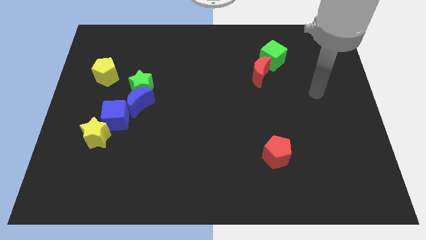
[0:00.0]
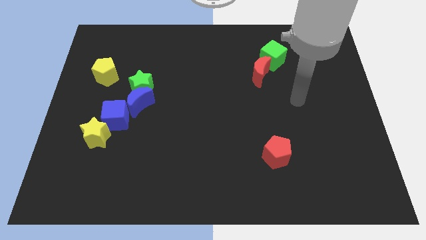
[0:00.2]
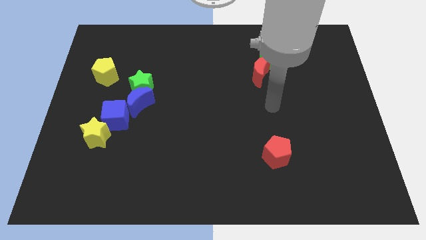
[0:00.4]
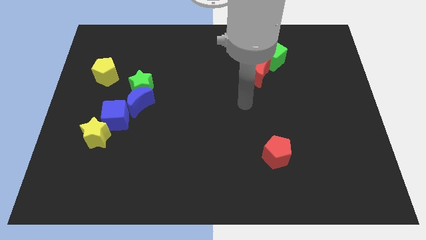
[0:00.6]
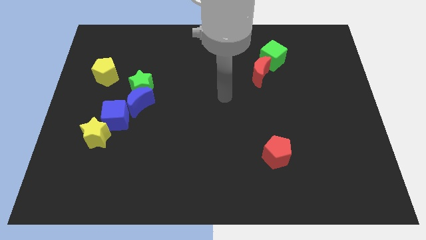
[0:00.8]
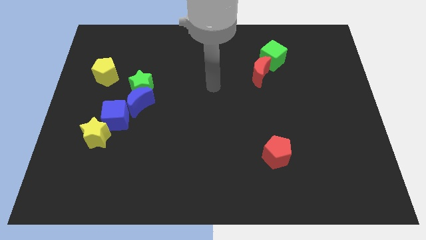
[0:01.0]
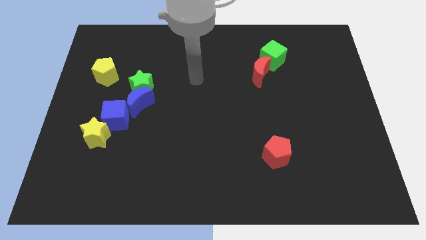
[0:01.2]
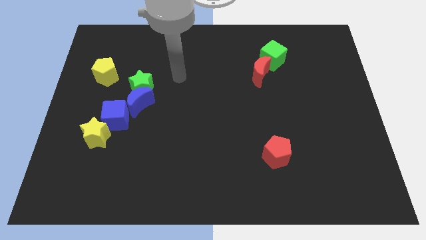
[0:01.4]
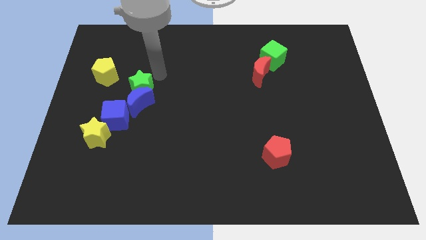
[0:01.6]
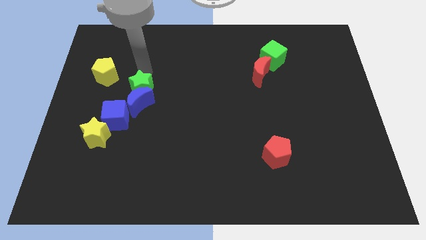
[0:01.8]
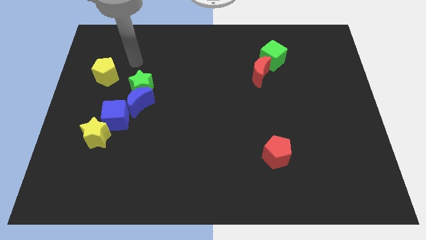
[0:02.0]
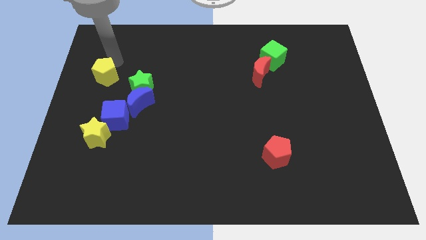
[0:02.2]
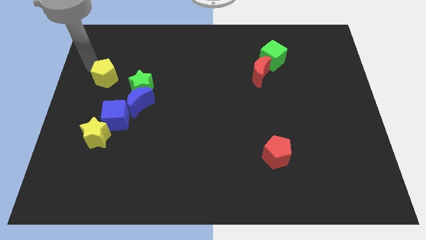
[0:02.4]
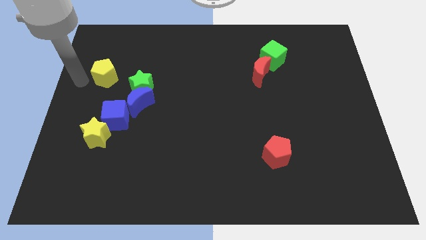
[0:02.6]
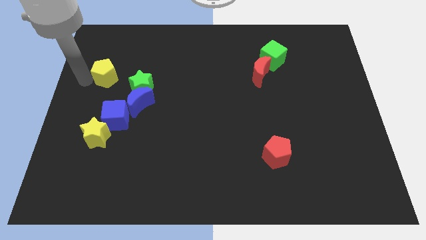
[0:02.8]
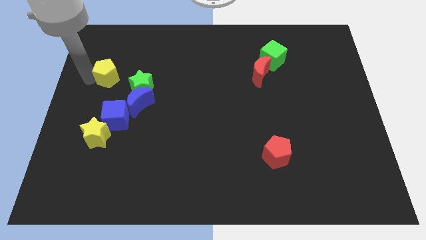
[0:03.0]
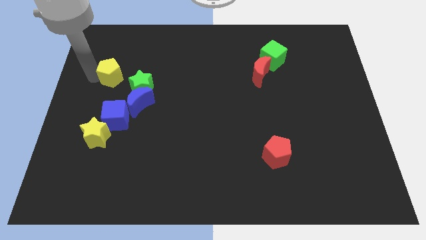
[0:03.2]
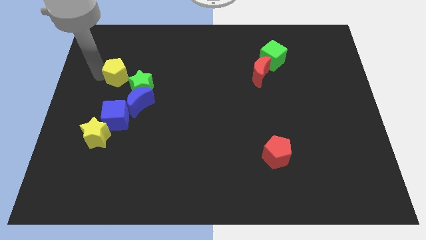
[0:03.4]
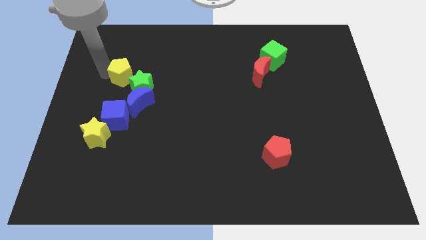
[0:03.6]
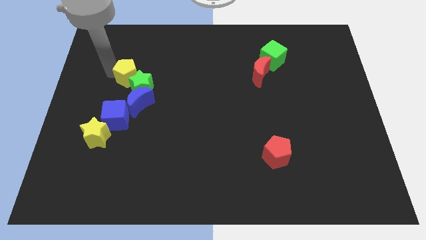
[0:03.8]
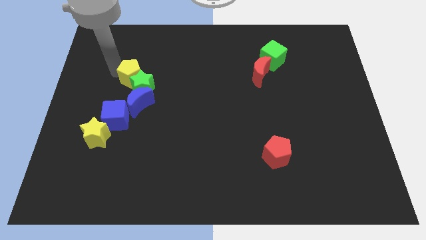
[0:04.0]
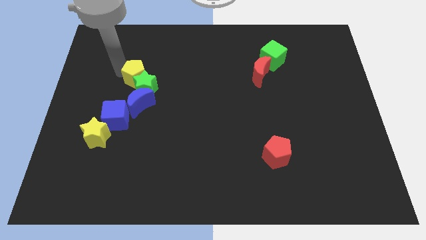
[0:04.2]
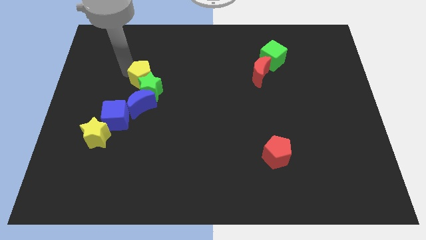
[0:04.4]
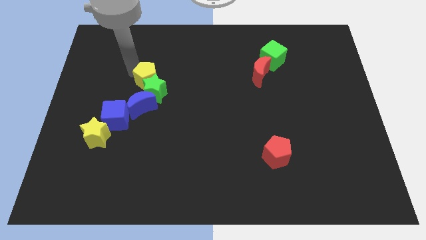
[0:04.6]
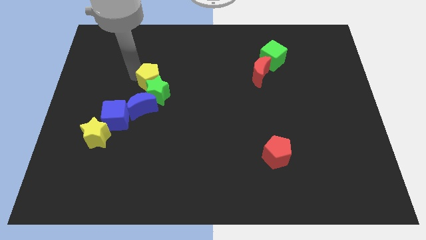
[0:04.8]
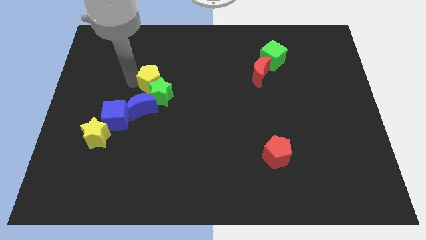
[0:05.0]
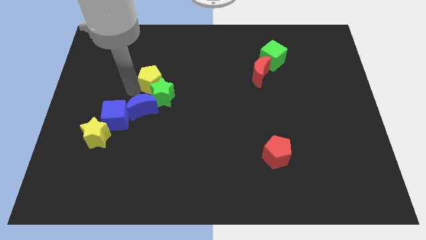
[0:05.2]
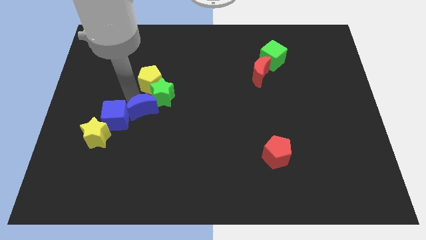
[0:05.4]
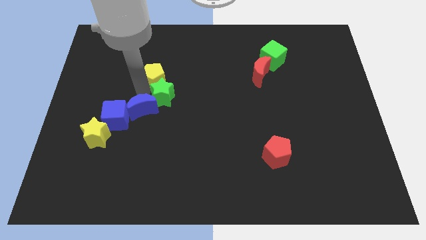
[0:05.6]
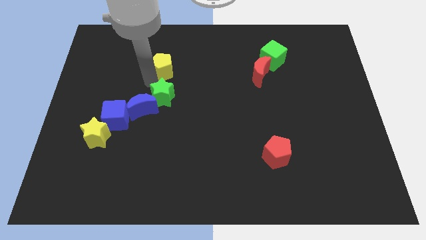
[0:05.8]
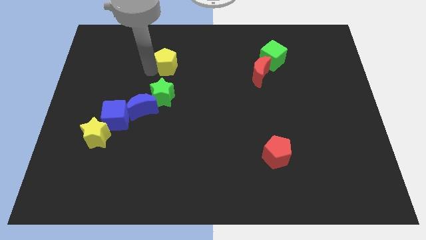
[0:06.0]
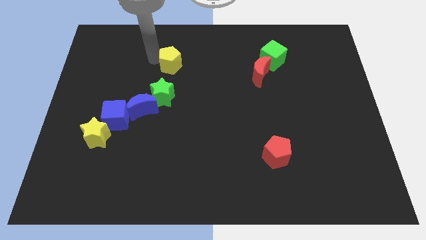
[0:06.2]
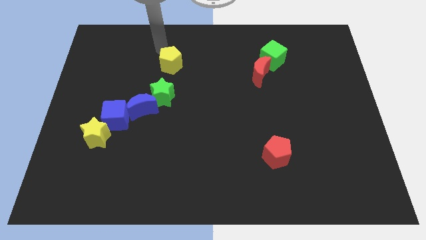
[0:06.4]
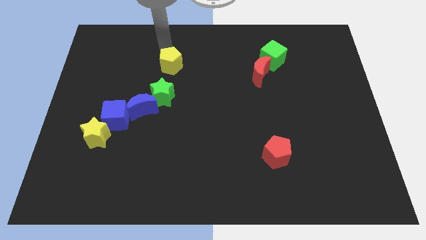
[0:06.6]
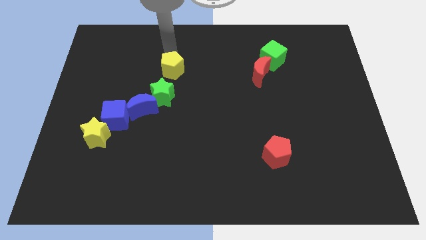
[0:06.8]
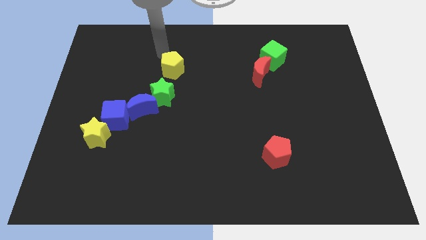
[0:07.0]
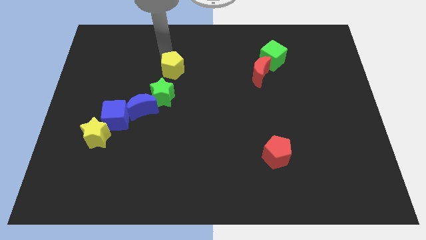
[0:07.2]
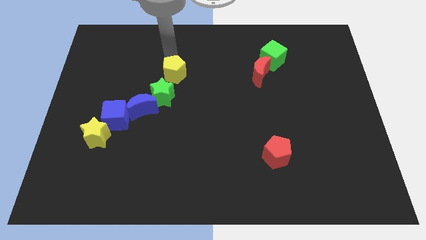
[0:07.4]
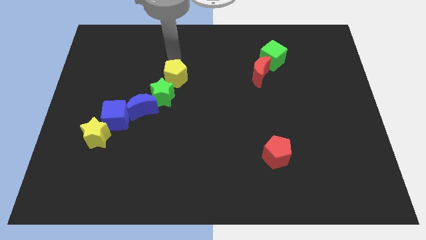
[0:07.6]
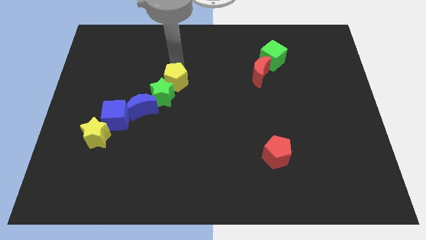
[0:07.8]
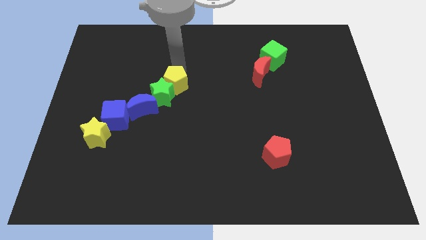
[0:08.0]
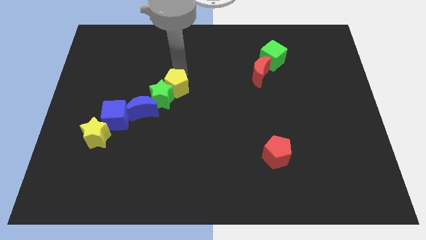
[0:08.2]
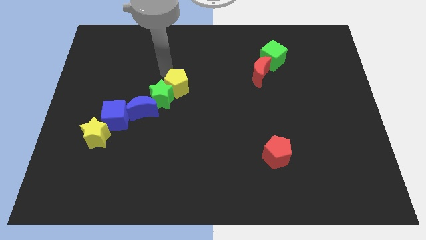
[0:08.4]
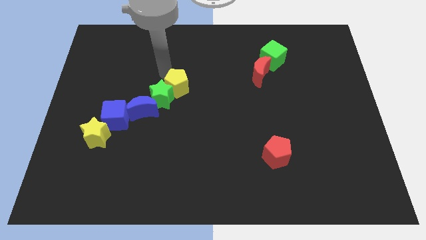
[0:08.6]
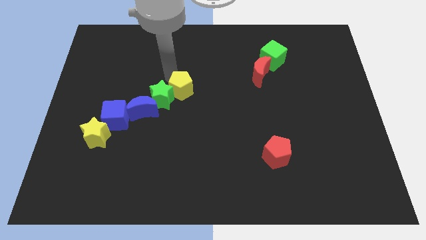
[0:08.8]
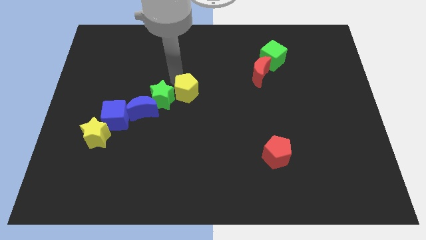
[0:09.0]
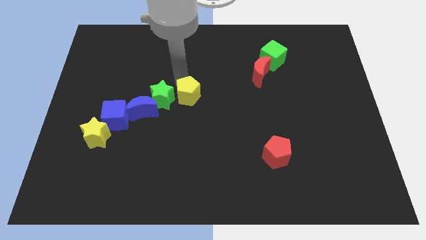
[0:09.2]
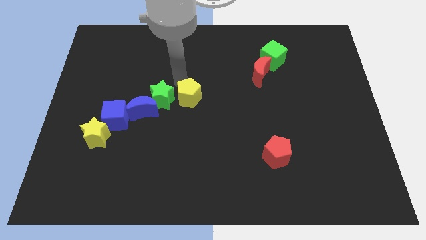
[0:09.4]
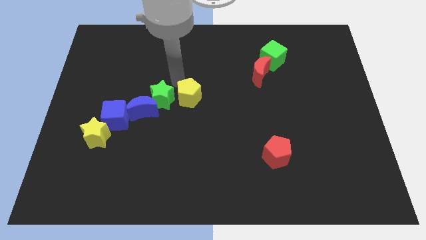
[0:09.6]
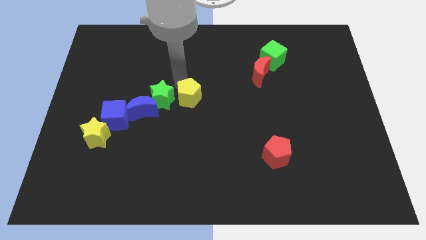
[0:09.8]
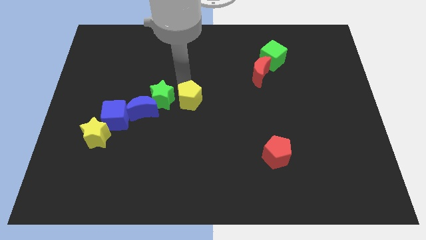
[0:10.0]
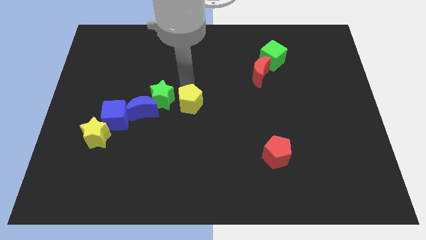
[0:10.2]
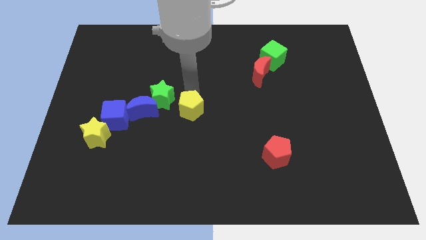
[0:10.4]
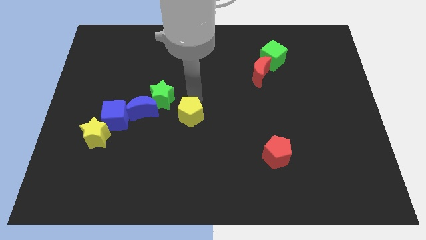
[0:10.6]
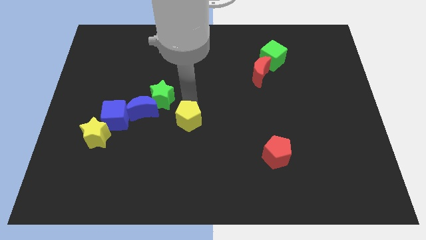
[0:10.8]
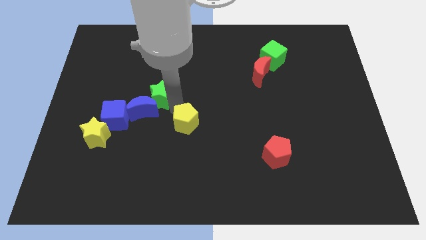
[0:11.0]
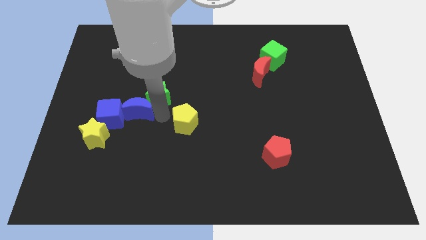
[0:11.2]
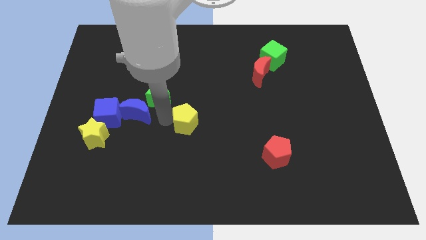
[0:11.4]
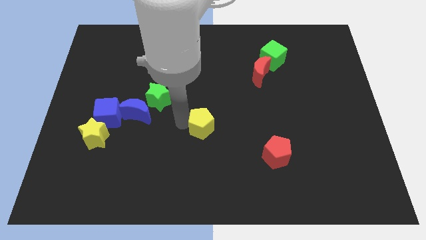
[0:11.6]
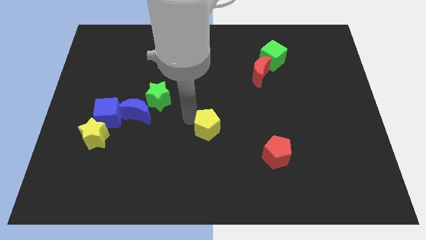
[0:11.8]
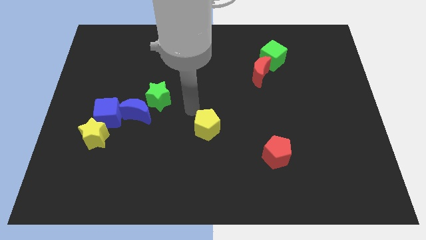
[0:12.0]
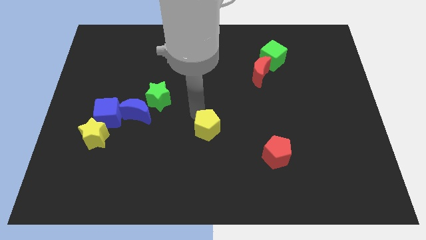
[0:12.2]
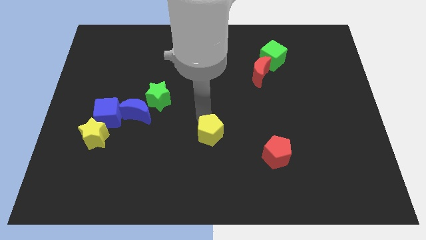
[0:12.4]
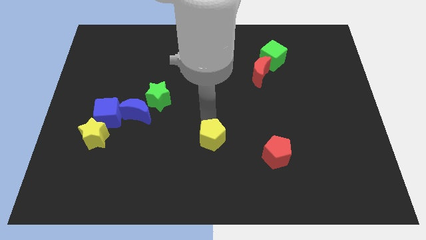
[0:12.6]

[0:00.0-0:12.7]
put the yellow pentagon just left of the red pentagon

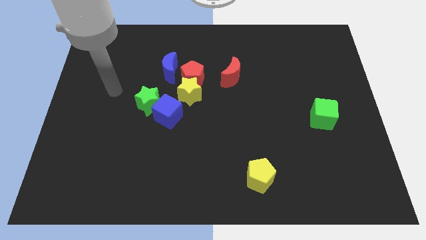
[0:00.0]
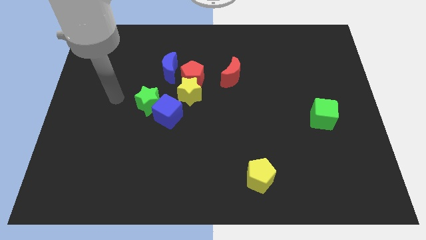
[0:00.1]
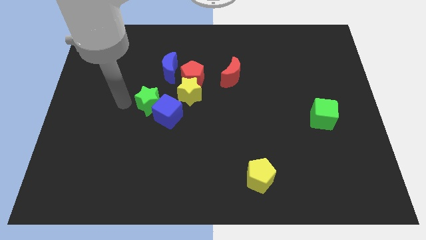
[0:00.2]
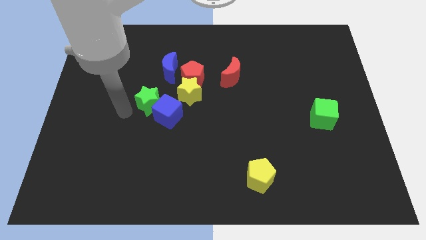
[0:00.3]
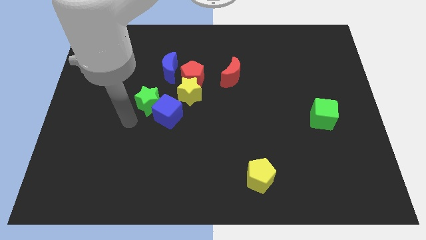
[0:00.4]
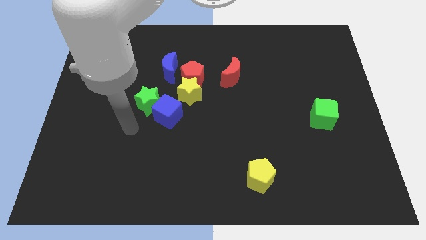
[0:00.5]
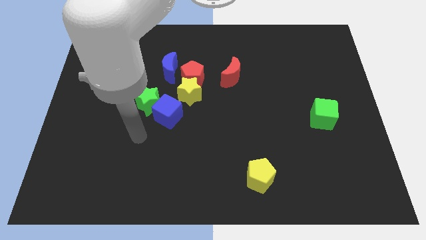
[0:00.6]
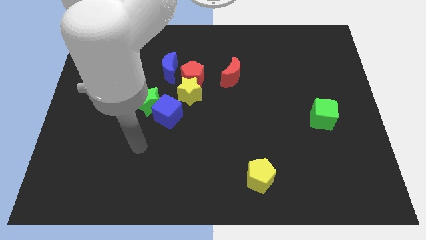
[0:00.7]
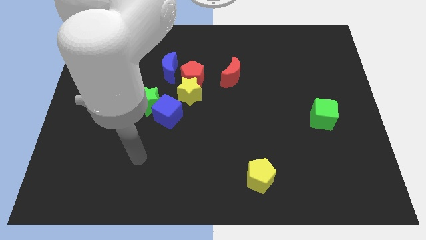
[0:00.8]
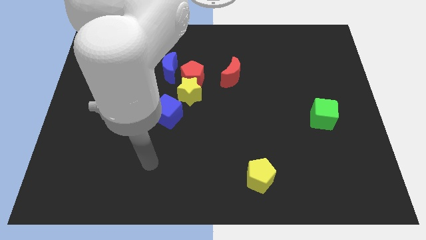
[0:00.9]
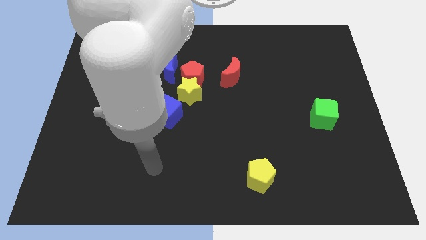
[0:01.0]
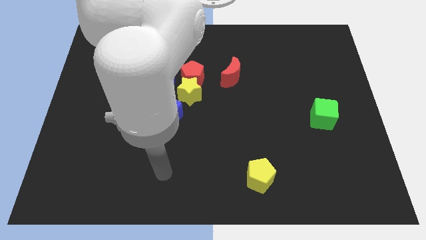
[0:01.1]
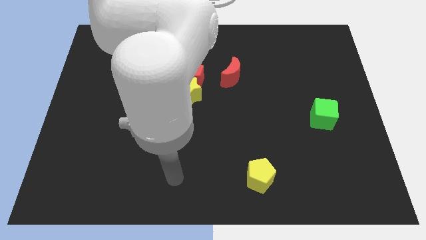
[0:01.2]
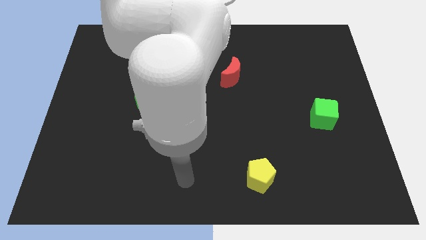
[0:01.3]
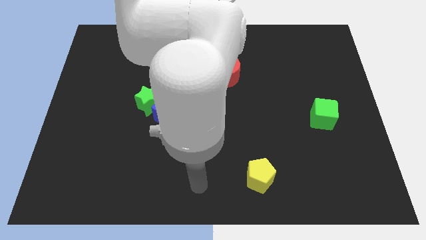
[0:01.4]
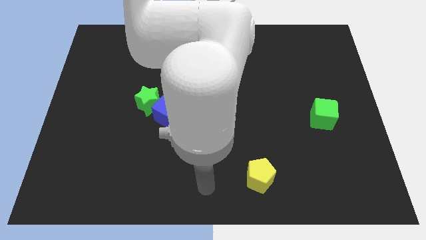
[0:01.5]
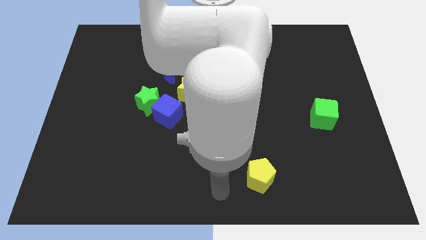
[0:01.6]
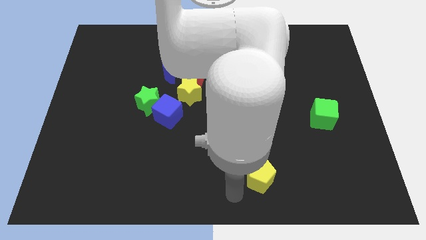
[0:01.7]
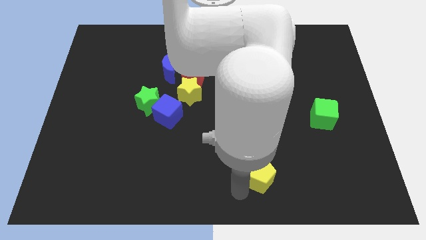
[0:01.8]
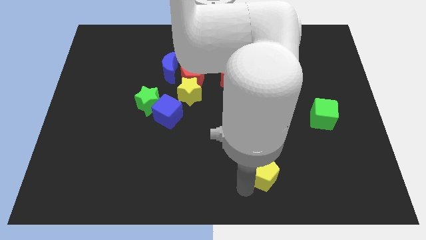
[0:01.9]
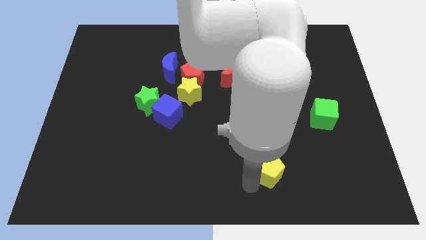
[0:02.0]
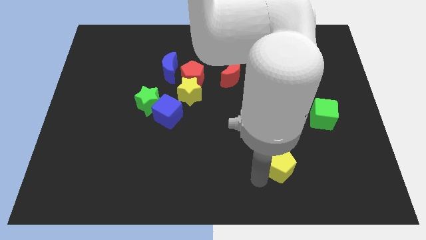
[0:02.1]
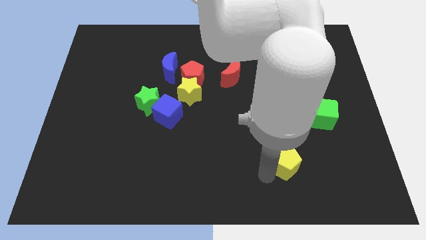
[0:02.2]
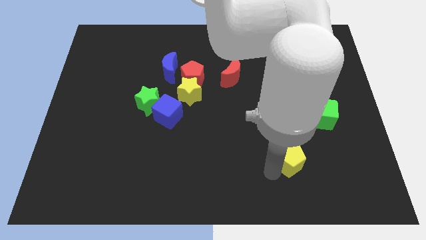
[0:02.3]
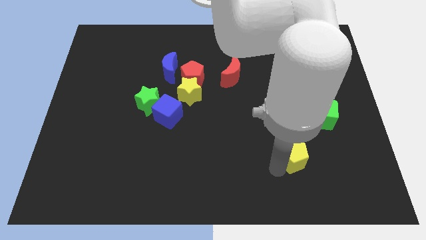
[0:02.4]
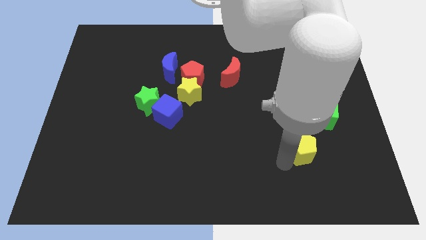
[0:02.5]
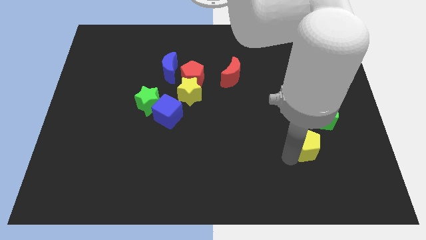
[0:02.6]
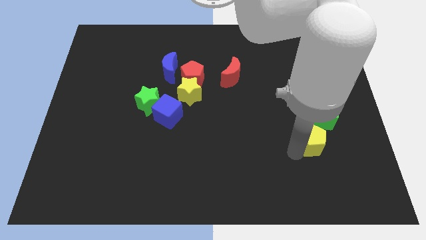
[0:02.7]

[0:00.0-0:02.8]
slide the yellow pentagon to the bottom side of the green cube
